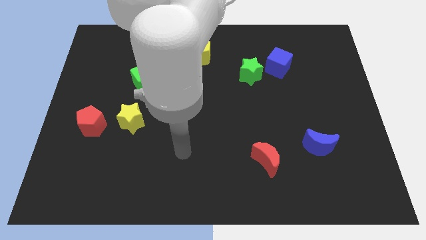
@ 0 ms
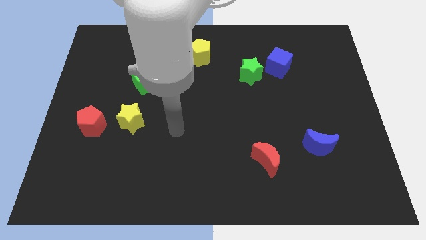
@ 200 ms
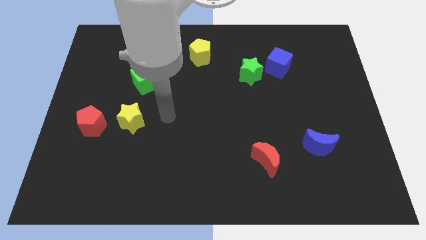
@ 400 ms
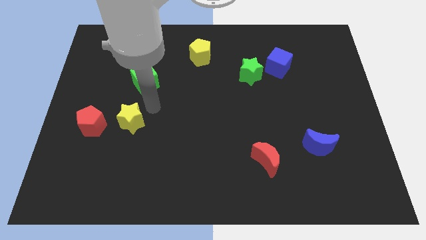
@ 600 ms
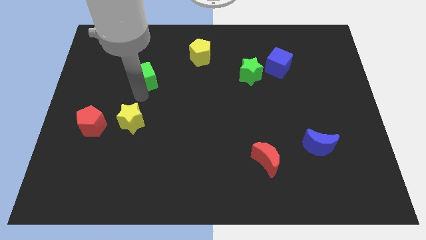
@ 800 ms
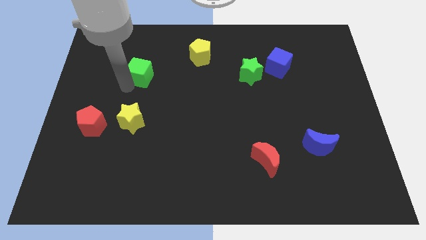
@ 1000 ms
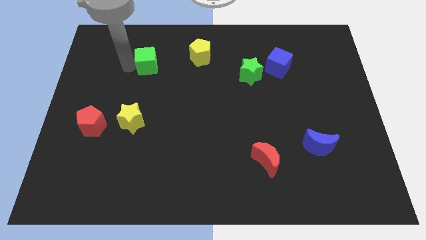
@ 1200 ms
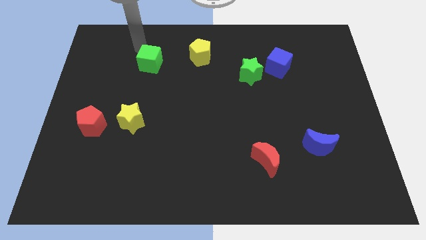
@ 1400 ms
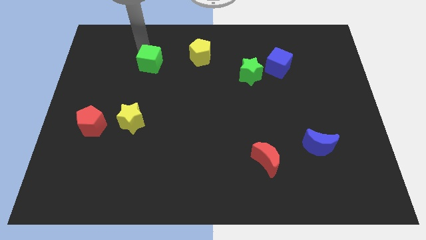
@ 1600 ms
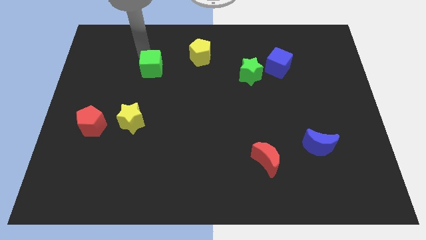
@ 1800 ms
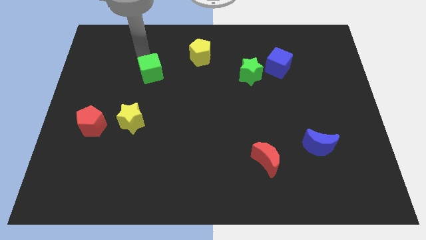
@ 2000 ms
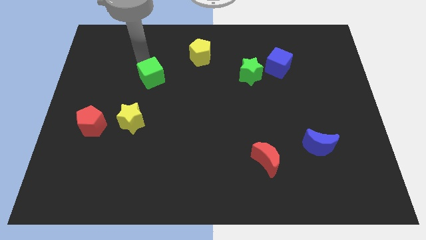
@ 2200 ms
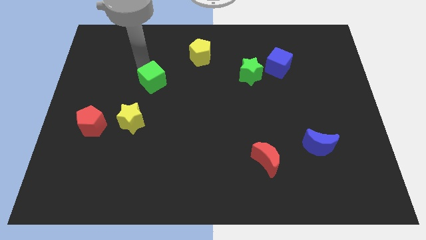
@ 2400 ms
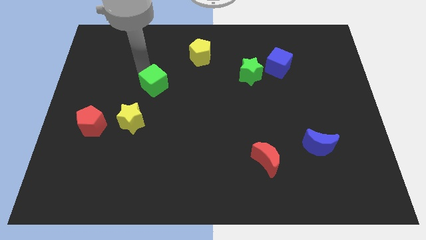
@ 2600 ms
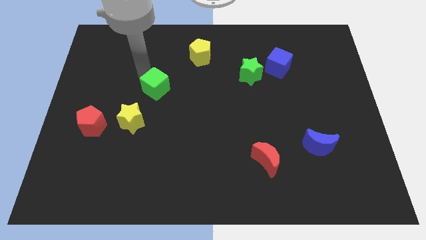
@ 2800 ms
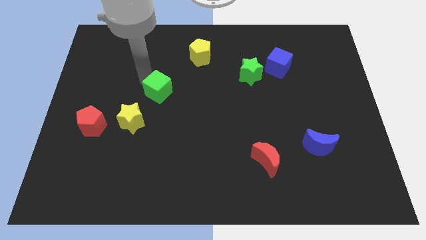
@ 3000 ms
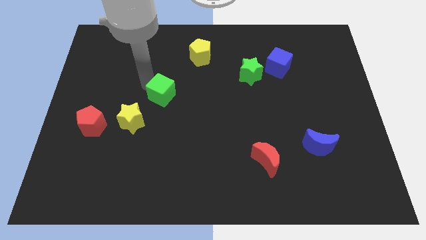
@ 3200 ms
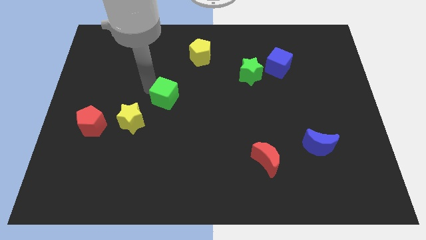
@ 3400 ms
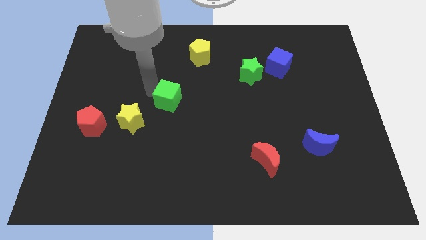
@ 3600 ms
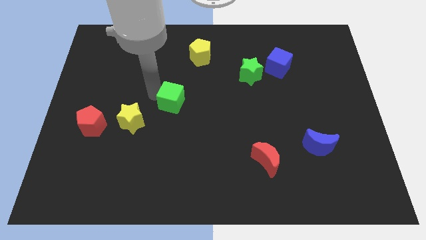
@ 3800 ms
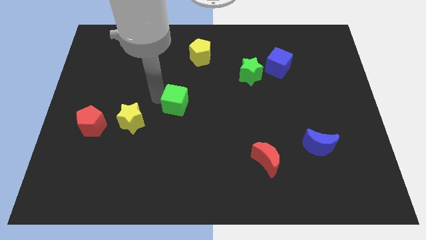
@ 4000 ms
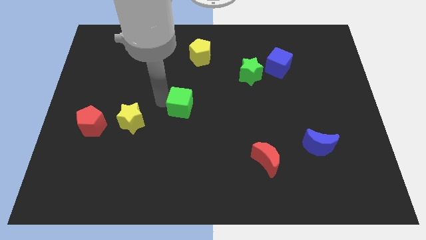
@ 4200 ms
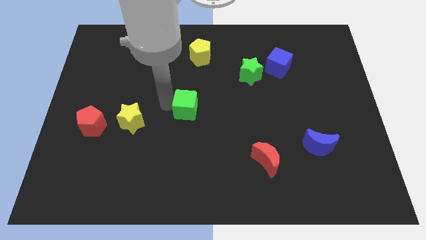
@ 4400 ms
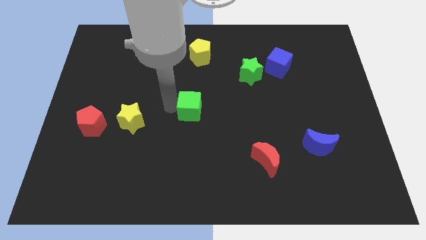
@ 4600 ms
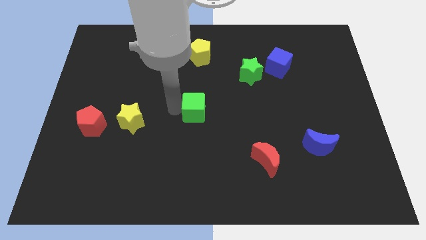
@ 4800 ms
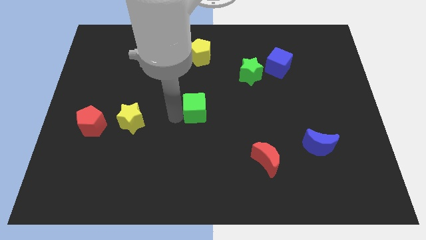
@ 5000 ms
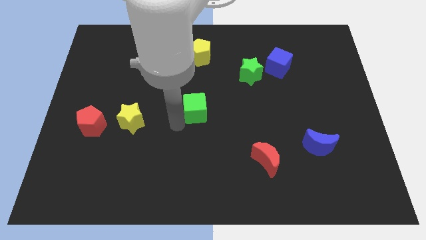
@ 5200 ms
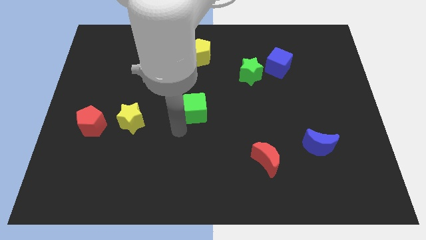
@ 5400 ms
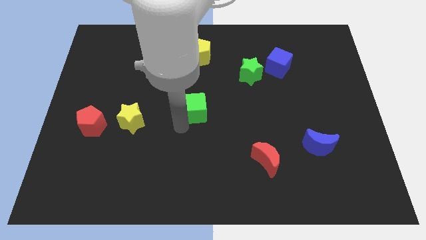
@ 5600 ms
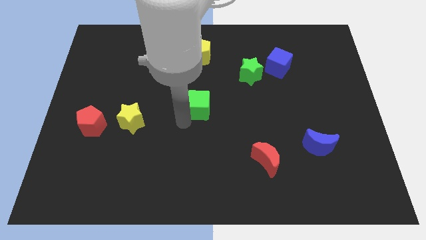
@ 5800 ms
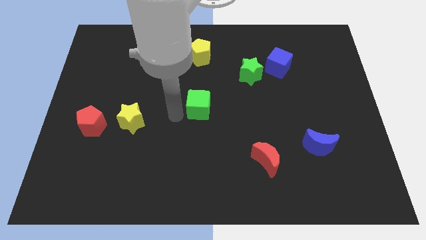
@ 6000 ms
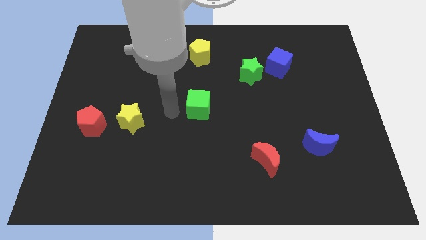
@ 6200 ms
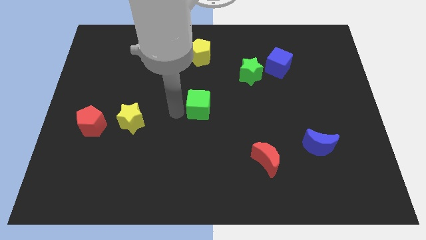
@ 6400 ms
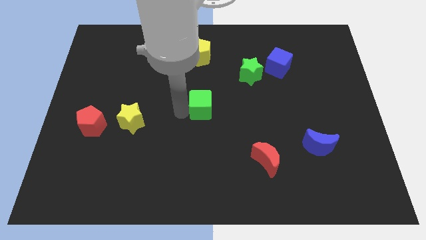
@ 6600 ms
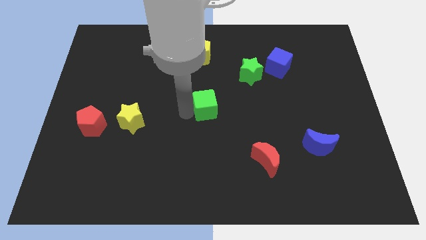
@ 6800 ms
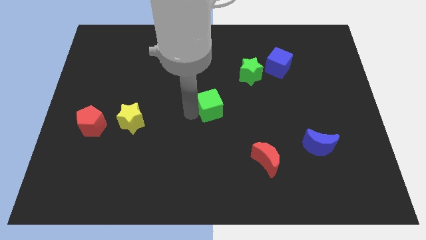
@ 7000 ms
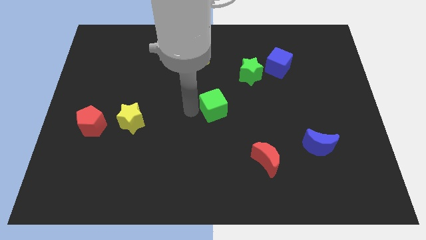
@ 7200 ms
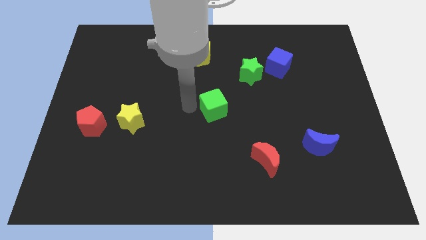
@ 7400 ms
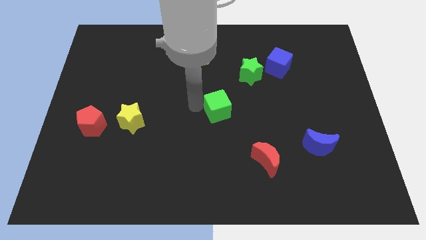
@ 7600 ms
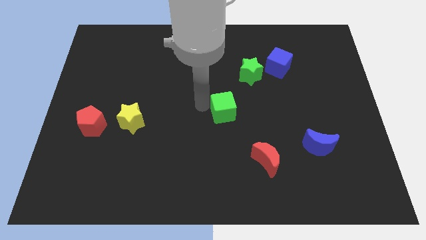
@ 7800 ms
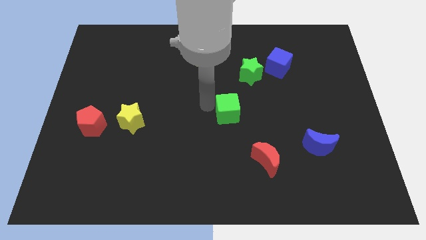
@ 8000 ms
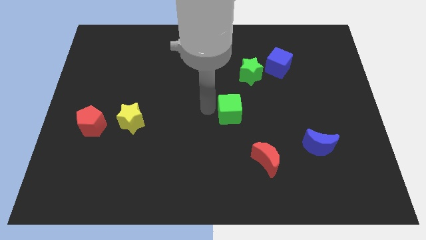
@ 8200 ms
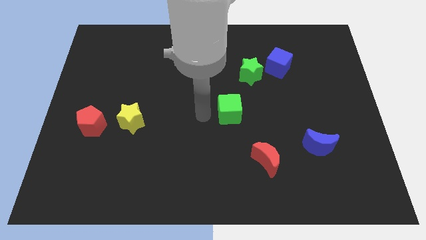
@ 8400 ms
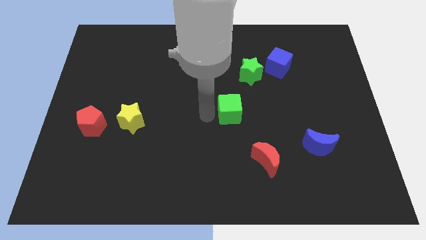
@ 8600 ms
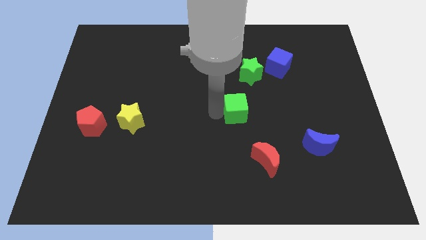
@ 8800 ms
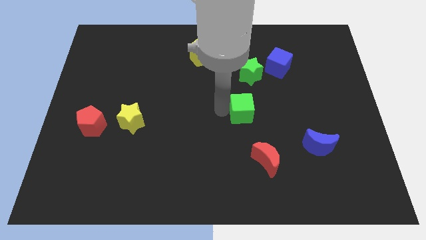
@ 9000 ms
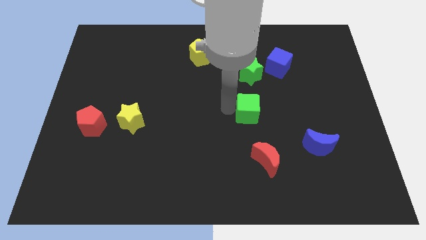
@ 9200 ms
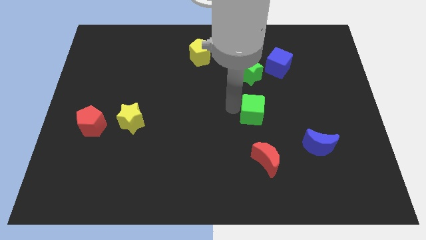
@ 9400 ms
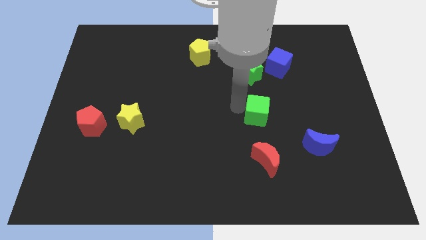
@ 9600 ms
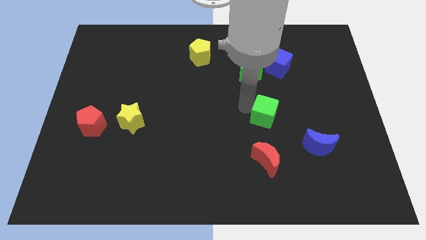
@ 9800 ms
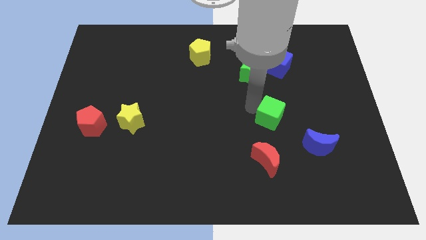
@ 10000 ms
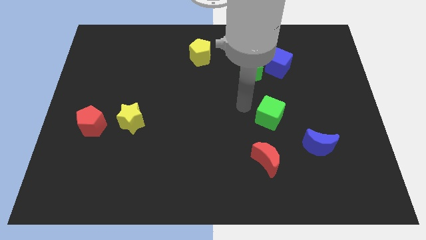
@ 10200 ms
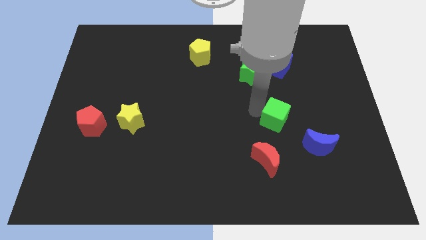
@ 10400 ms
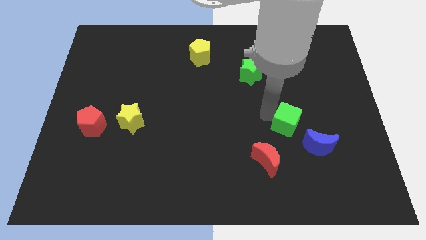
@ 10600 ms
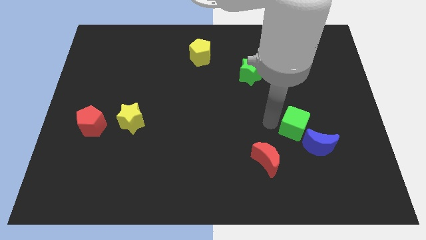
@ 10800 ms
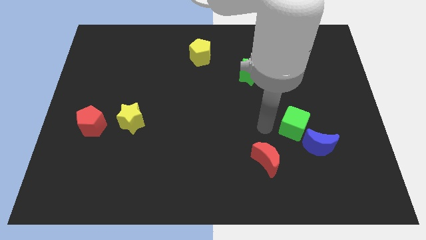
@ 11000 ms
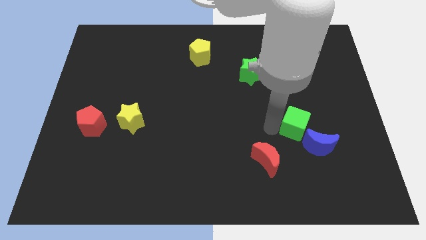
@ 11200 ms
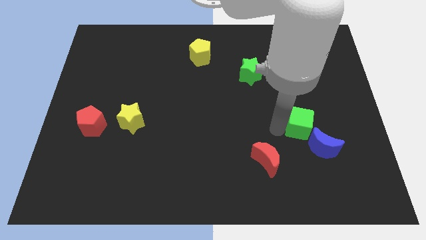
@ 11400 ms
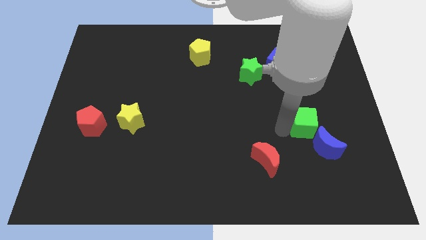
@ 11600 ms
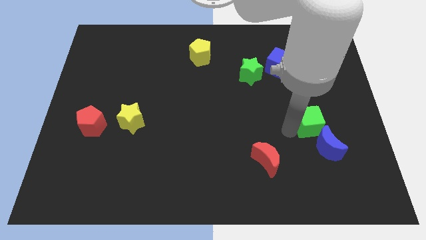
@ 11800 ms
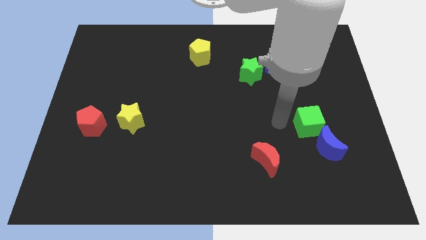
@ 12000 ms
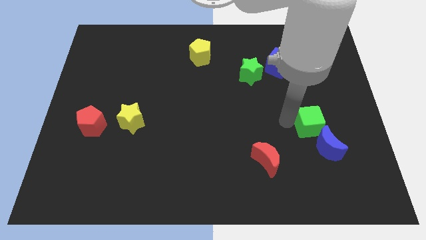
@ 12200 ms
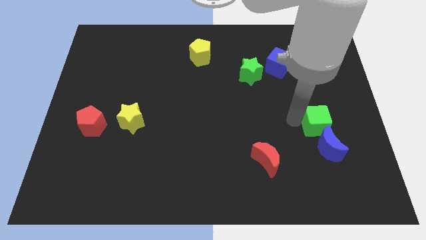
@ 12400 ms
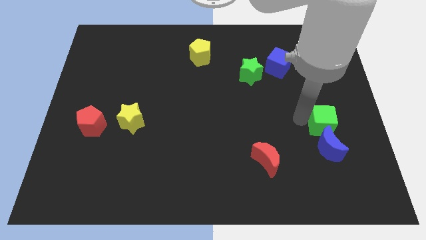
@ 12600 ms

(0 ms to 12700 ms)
move the green cube to the top right of the blue moon

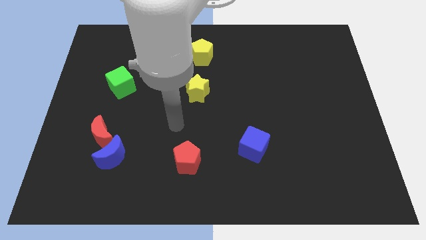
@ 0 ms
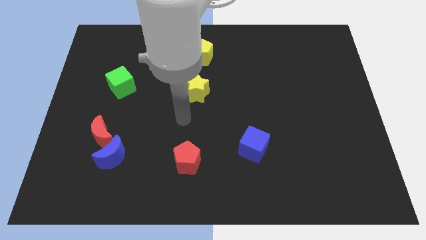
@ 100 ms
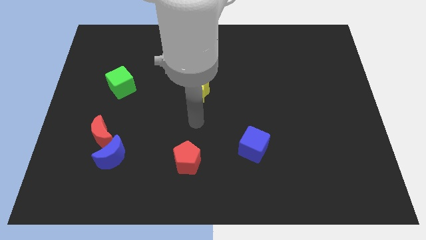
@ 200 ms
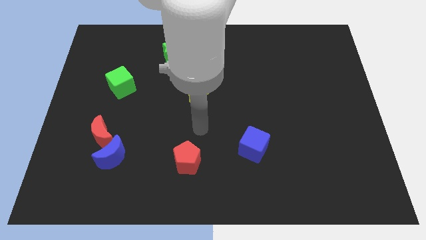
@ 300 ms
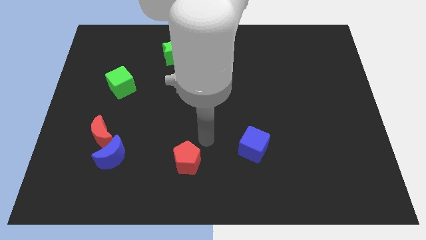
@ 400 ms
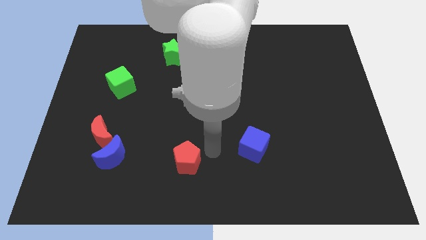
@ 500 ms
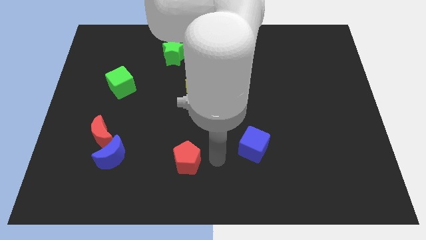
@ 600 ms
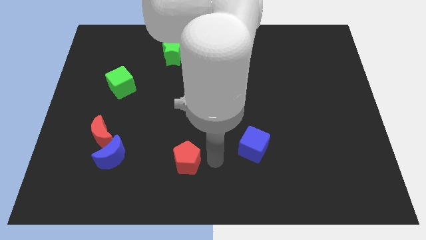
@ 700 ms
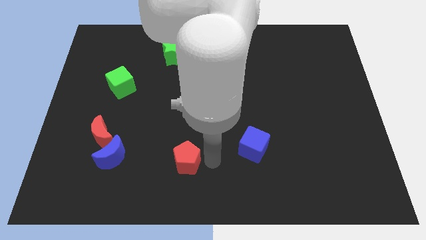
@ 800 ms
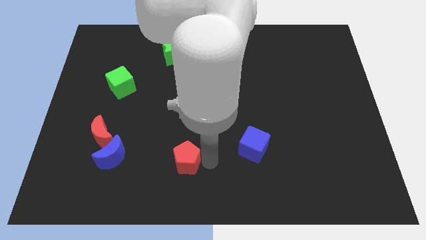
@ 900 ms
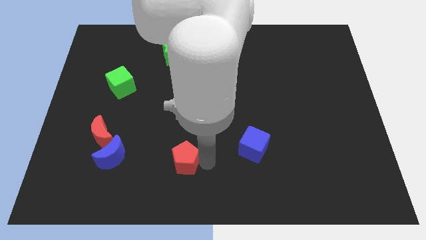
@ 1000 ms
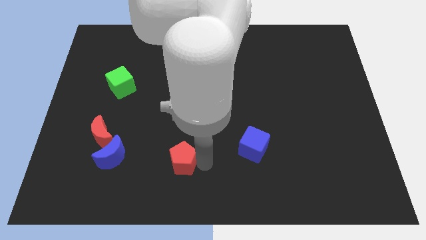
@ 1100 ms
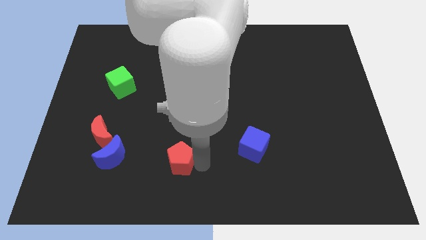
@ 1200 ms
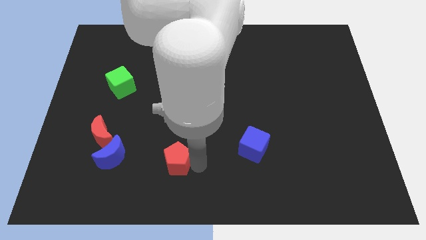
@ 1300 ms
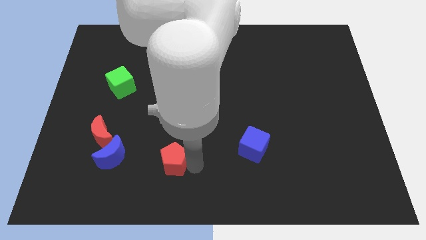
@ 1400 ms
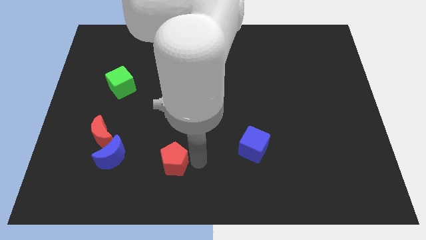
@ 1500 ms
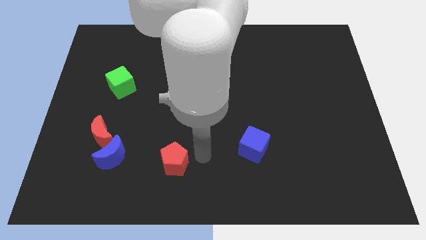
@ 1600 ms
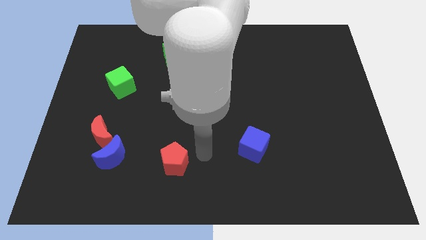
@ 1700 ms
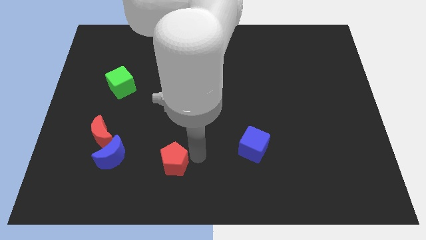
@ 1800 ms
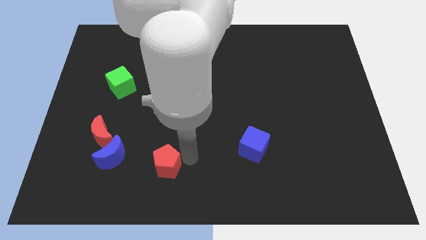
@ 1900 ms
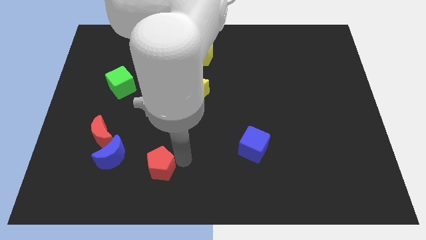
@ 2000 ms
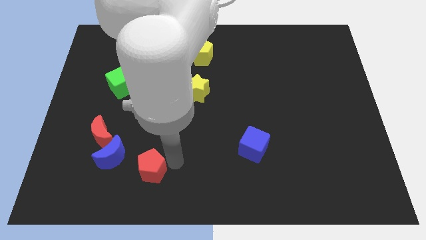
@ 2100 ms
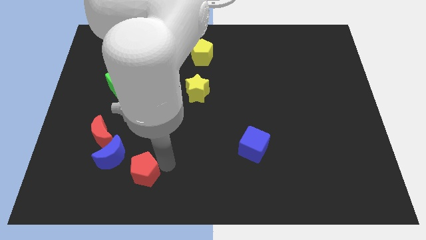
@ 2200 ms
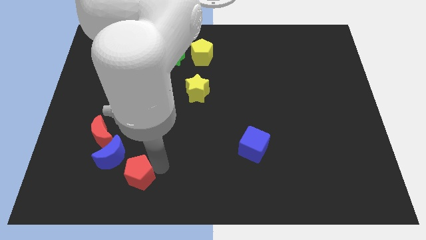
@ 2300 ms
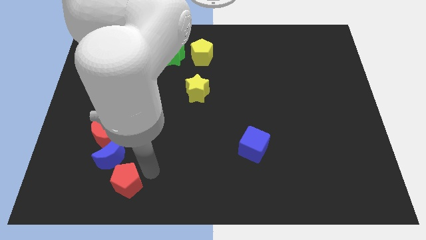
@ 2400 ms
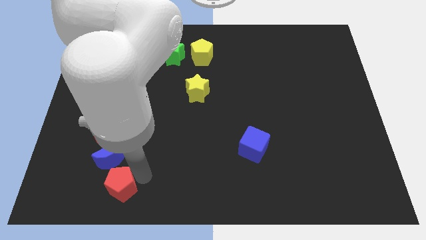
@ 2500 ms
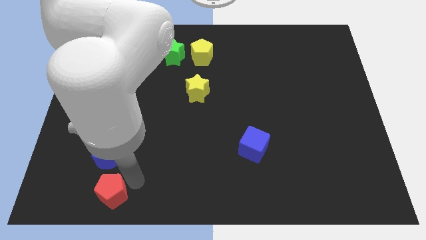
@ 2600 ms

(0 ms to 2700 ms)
push the red pentagon to the bottom of the red moon
